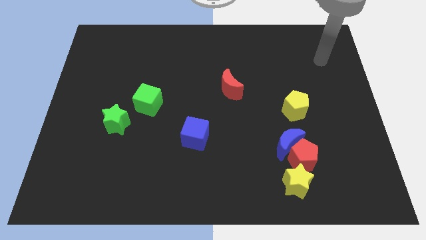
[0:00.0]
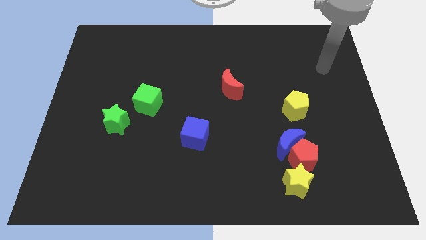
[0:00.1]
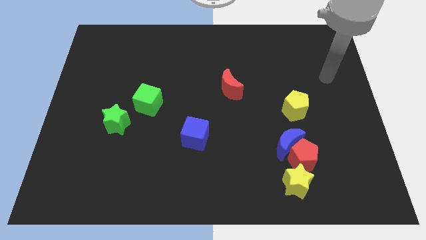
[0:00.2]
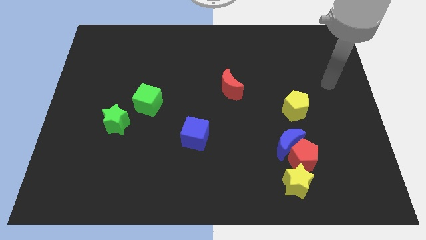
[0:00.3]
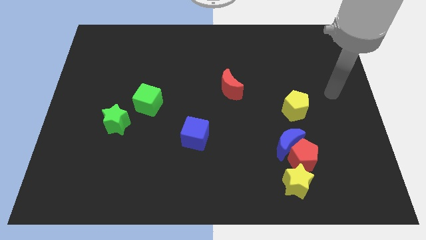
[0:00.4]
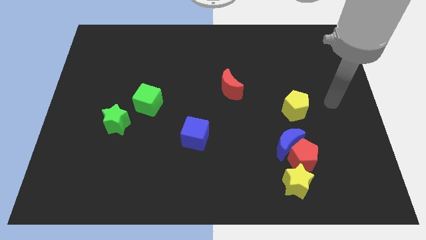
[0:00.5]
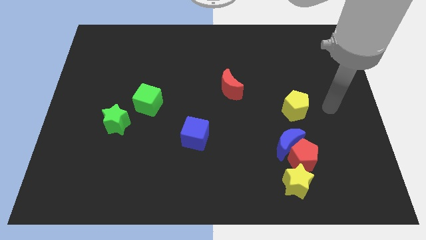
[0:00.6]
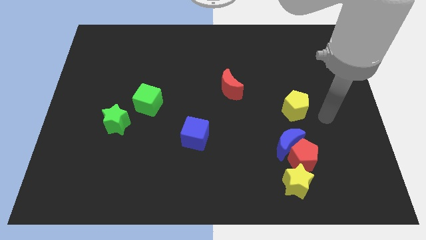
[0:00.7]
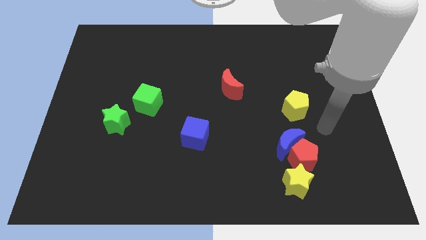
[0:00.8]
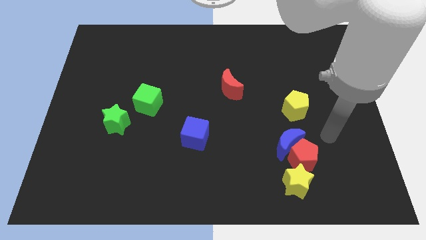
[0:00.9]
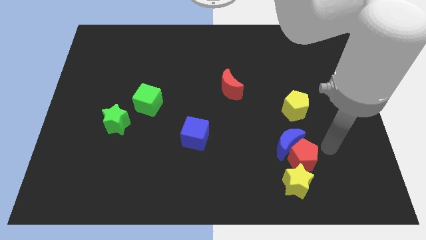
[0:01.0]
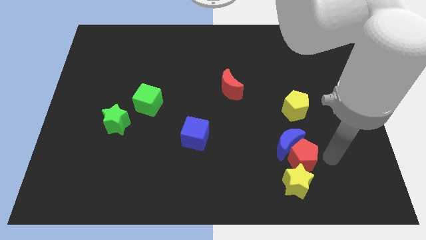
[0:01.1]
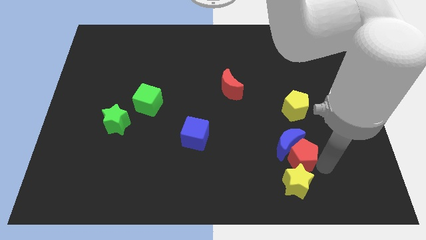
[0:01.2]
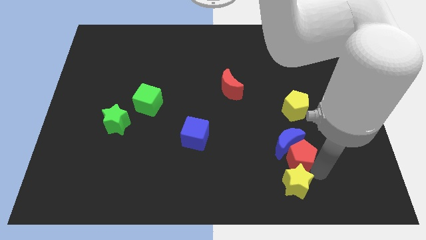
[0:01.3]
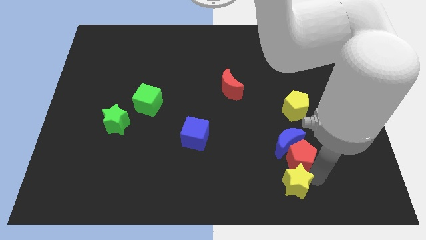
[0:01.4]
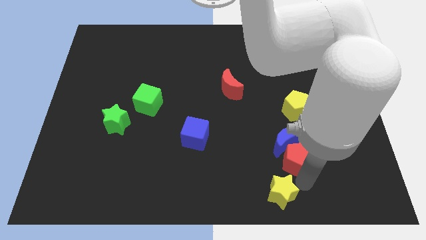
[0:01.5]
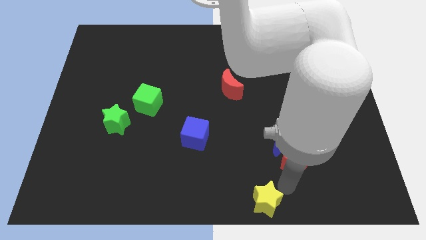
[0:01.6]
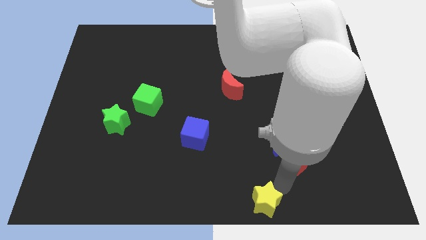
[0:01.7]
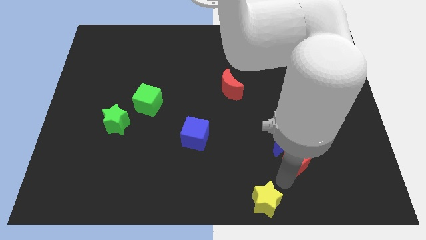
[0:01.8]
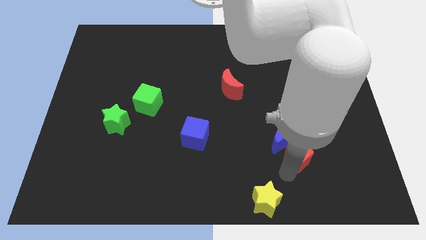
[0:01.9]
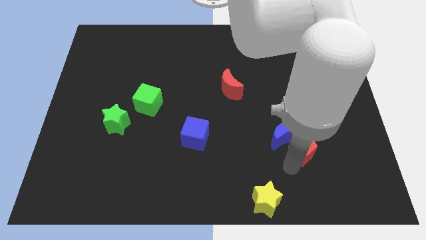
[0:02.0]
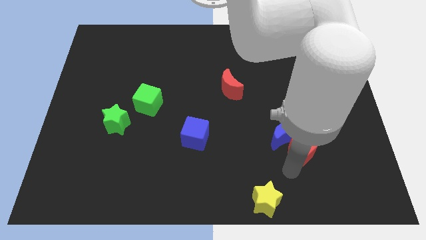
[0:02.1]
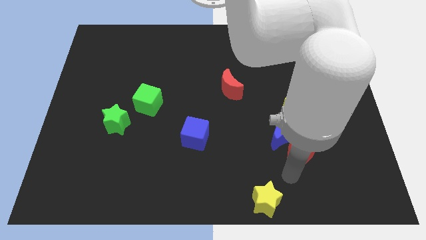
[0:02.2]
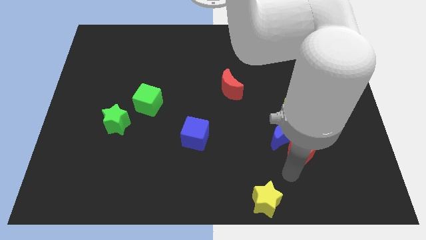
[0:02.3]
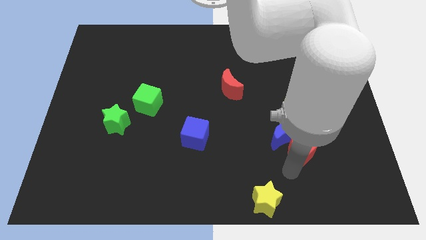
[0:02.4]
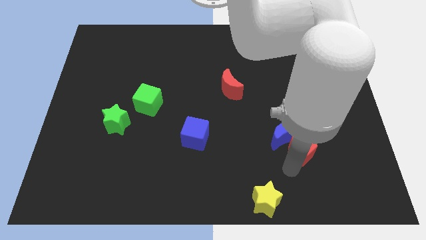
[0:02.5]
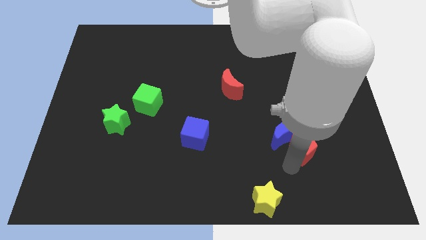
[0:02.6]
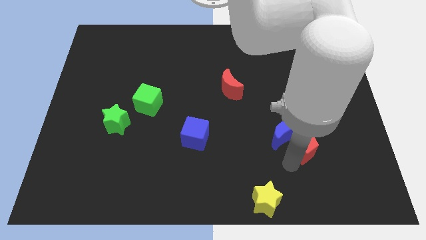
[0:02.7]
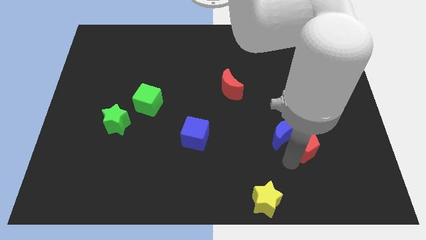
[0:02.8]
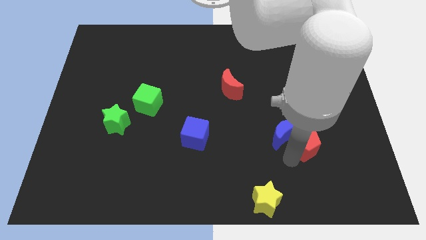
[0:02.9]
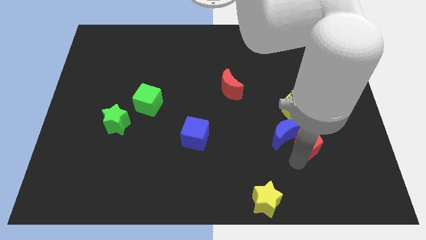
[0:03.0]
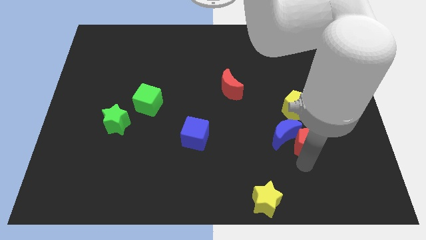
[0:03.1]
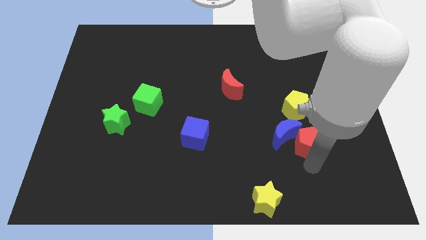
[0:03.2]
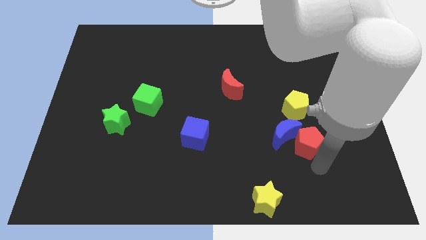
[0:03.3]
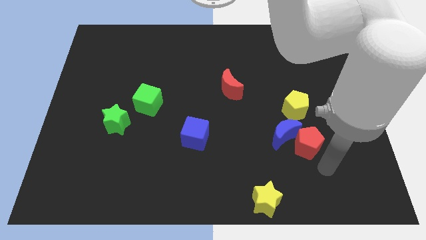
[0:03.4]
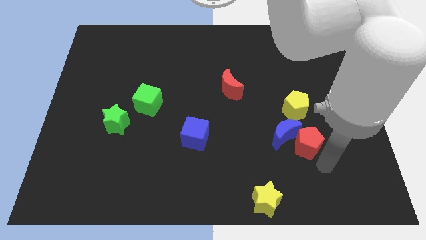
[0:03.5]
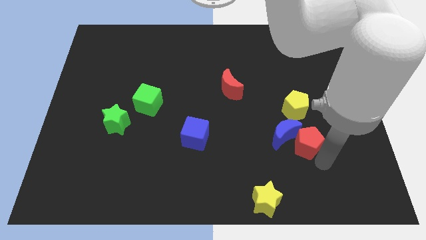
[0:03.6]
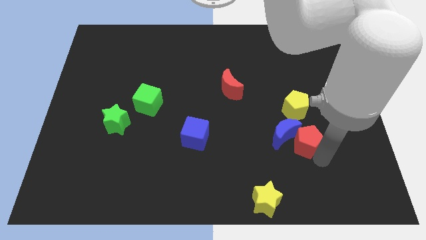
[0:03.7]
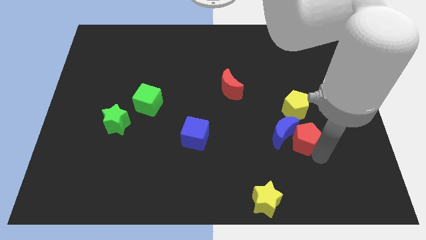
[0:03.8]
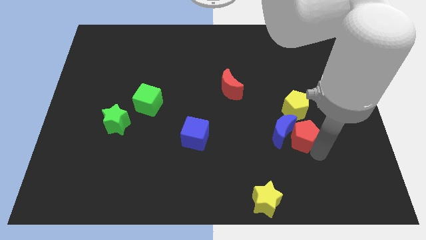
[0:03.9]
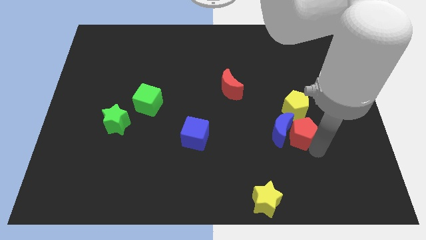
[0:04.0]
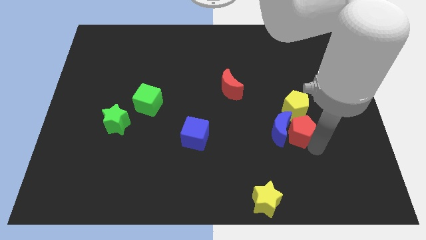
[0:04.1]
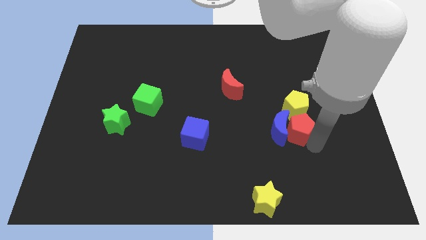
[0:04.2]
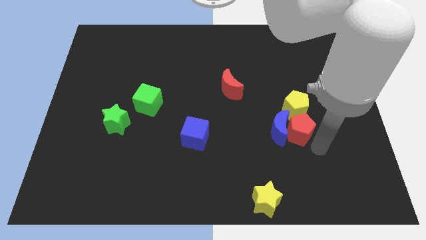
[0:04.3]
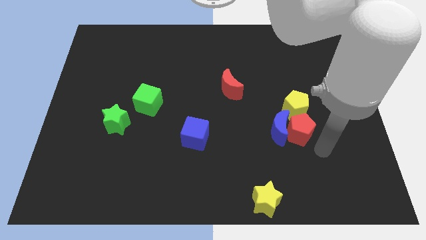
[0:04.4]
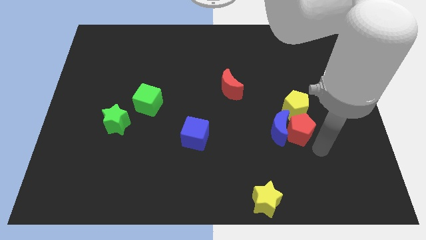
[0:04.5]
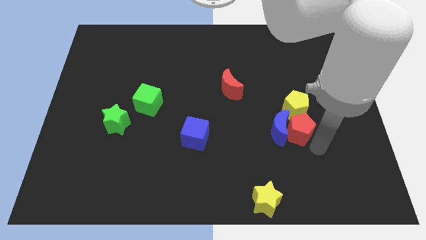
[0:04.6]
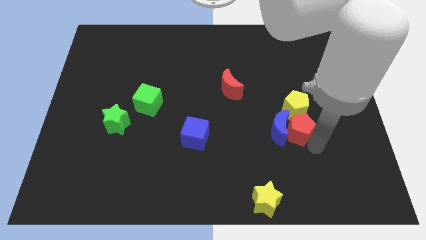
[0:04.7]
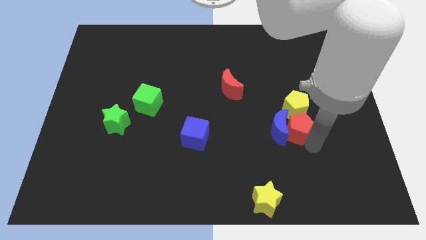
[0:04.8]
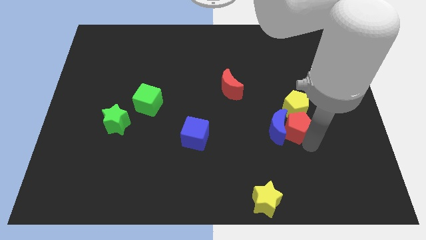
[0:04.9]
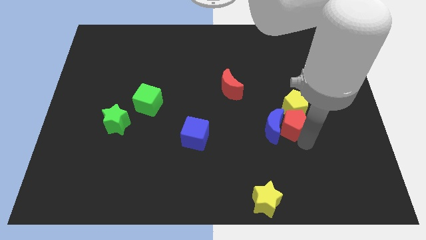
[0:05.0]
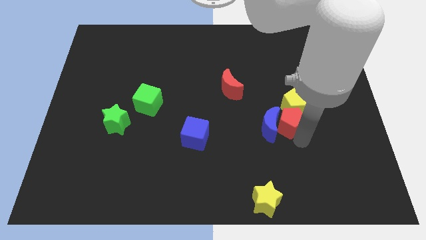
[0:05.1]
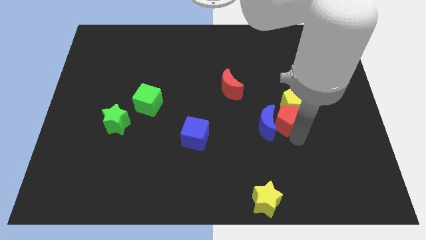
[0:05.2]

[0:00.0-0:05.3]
move the red pentagon a little upwards and to the left diagonally

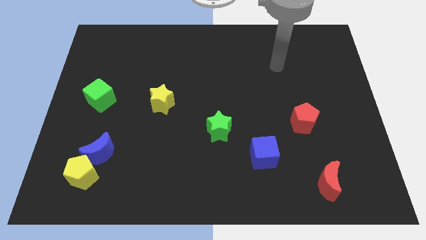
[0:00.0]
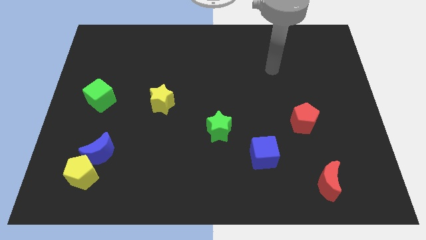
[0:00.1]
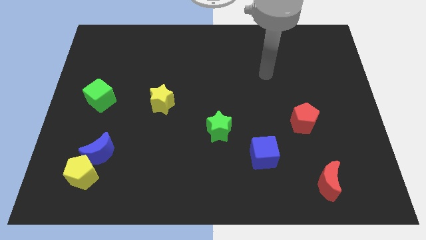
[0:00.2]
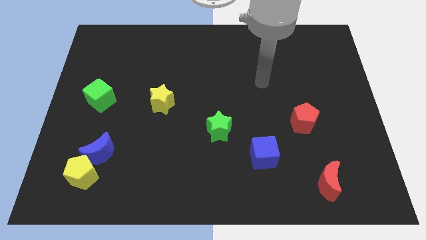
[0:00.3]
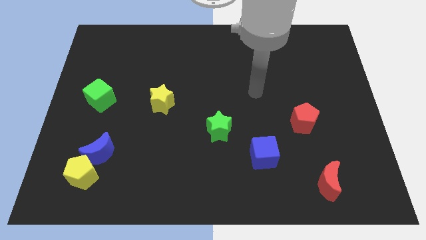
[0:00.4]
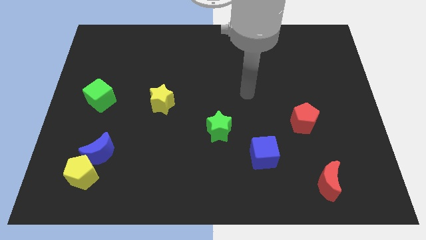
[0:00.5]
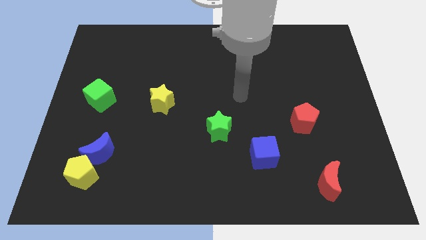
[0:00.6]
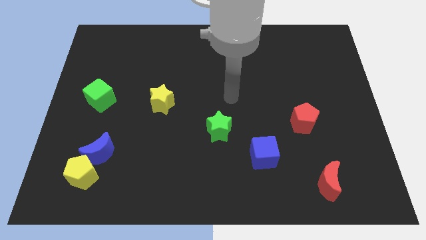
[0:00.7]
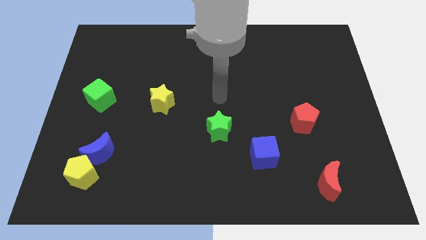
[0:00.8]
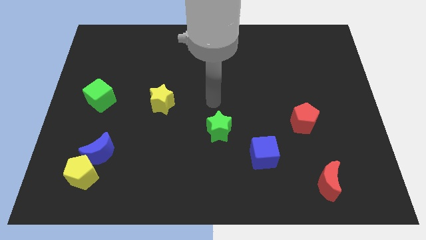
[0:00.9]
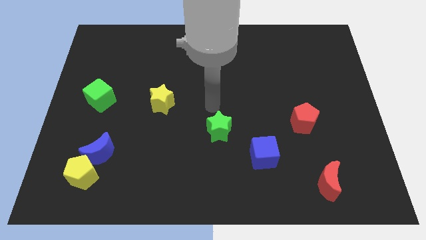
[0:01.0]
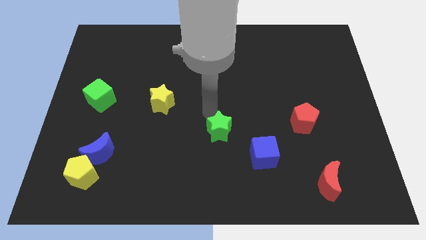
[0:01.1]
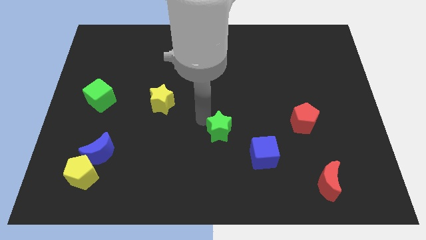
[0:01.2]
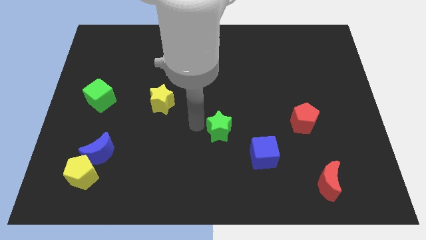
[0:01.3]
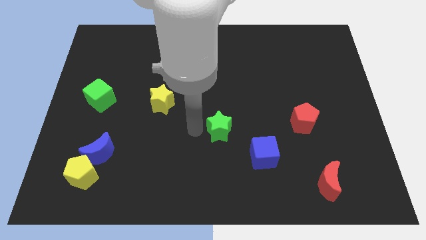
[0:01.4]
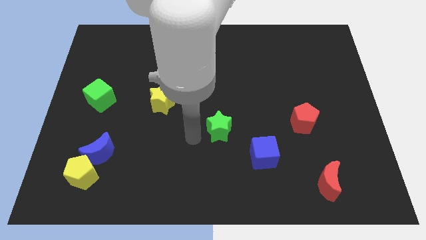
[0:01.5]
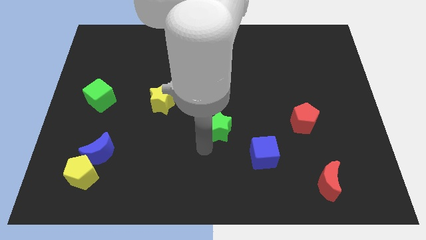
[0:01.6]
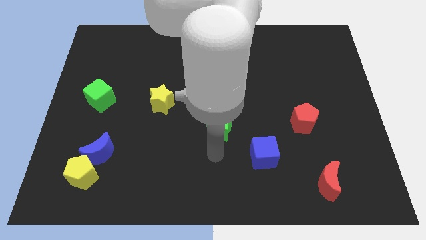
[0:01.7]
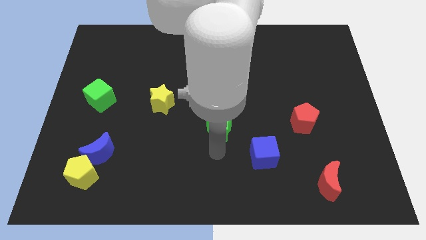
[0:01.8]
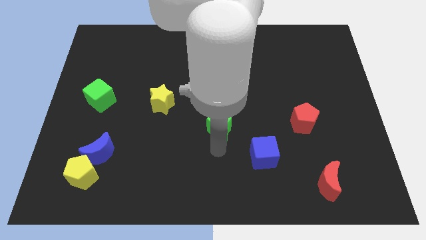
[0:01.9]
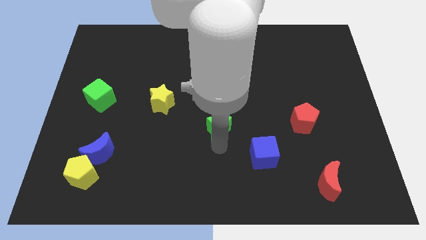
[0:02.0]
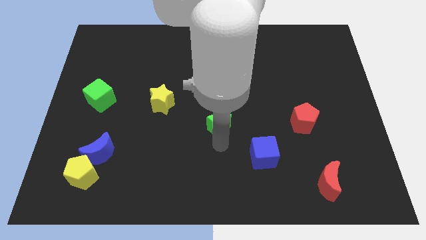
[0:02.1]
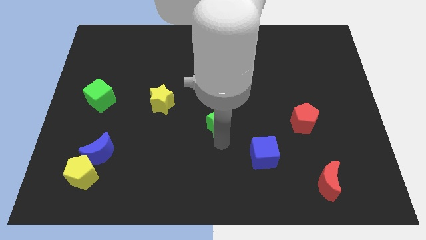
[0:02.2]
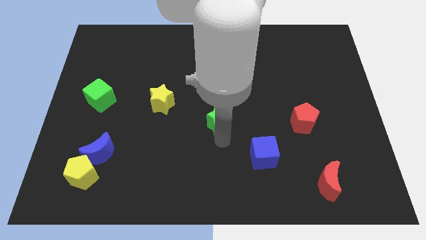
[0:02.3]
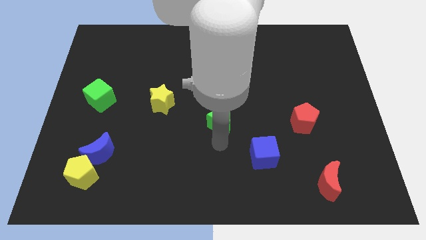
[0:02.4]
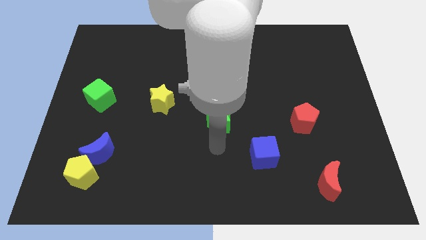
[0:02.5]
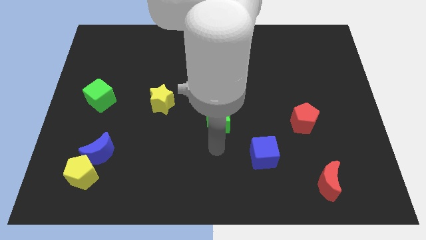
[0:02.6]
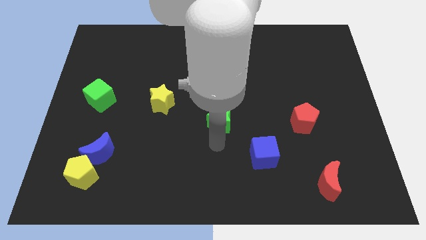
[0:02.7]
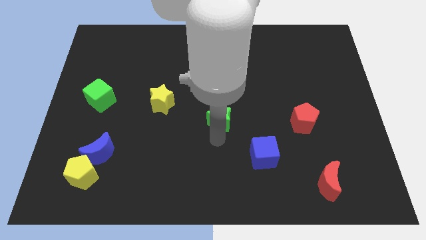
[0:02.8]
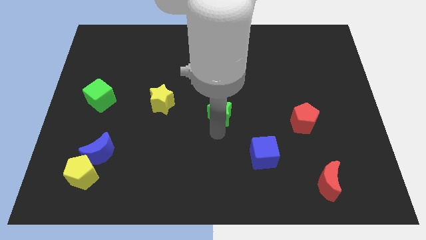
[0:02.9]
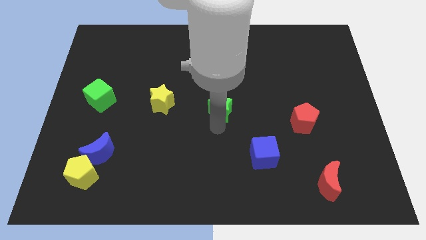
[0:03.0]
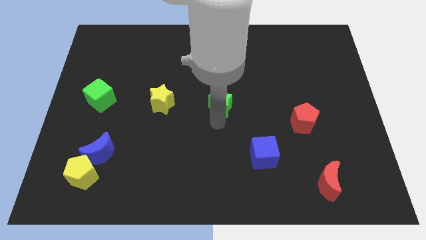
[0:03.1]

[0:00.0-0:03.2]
push the green star up a little bit
